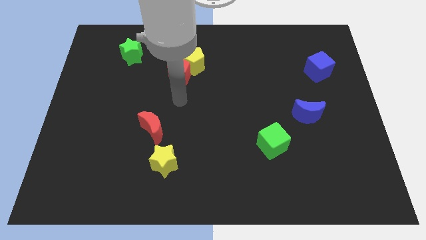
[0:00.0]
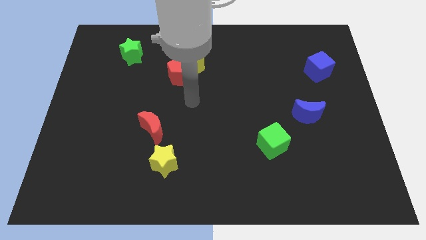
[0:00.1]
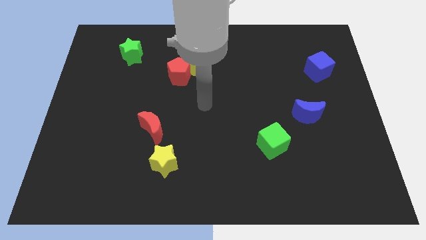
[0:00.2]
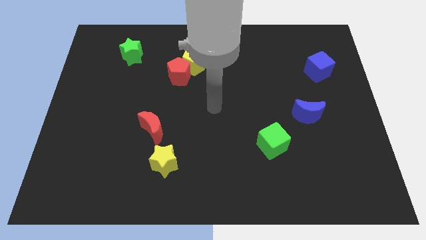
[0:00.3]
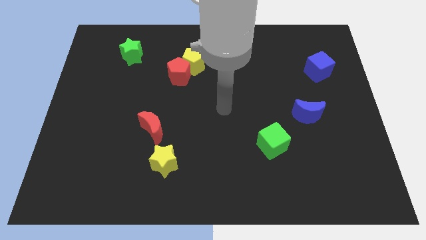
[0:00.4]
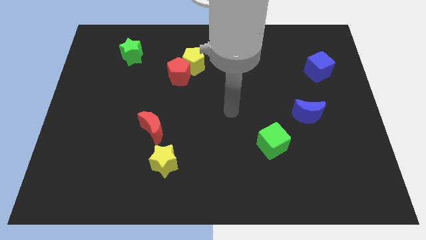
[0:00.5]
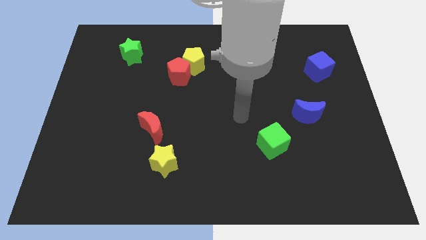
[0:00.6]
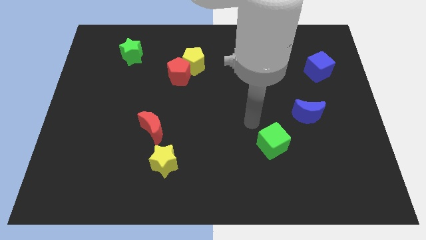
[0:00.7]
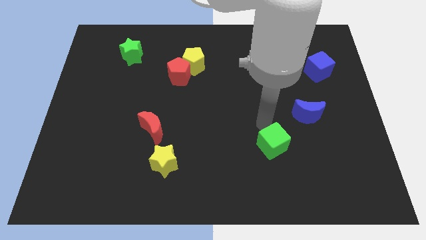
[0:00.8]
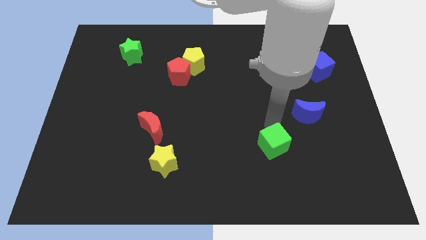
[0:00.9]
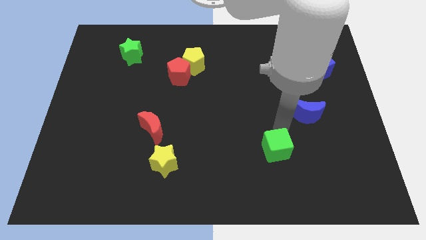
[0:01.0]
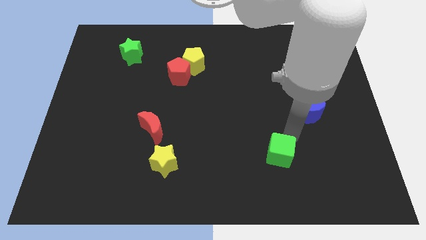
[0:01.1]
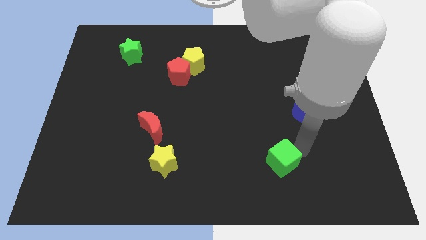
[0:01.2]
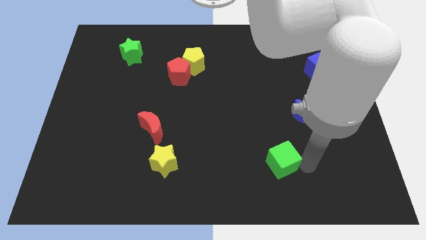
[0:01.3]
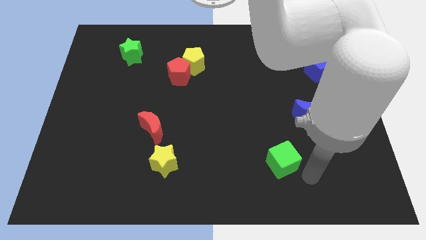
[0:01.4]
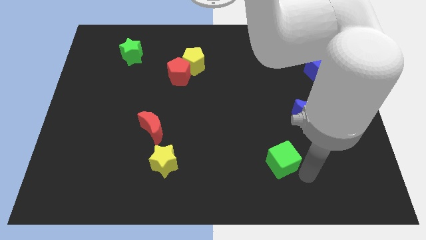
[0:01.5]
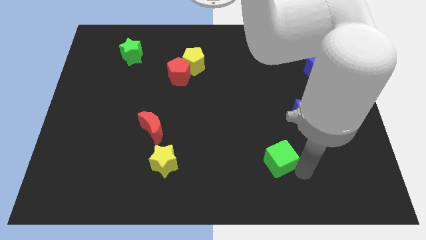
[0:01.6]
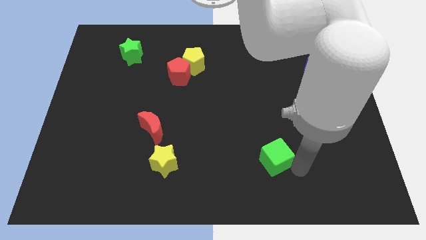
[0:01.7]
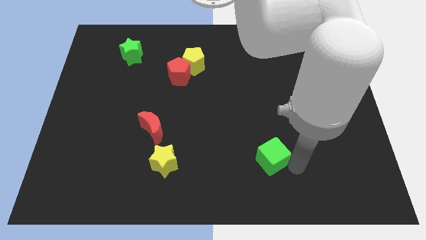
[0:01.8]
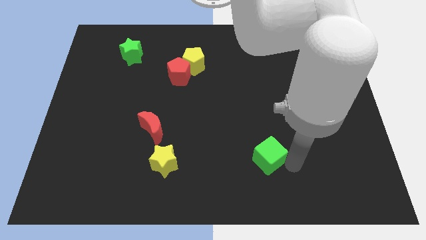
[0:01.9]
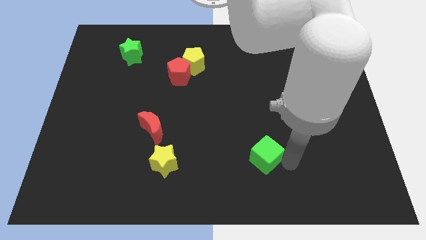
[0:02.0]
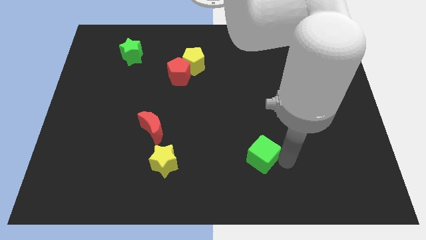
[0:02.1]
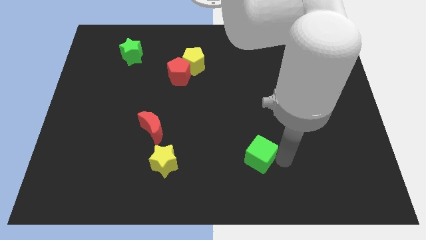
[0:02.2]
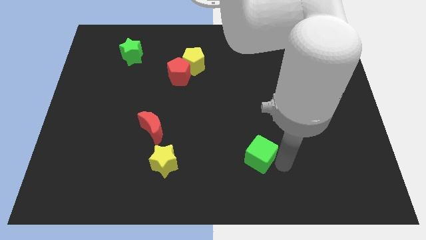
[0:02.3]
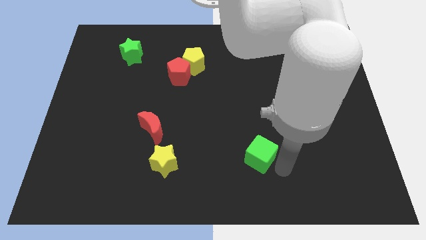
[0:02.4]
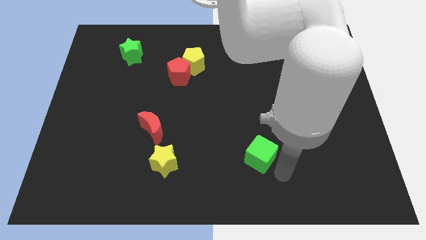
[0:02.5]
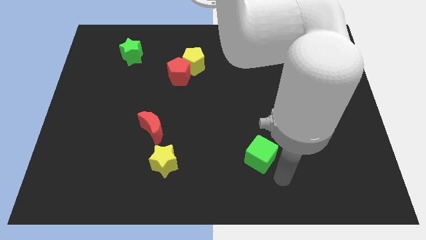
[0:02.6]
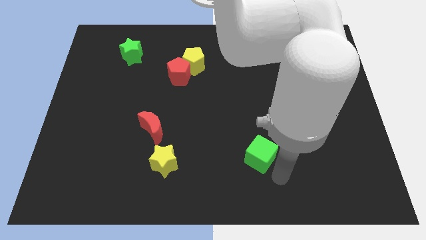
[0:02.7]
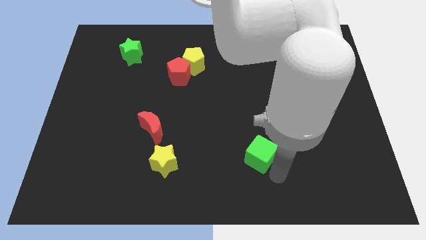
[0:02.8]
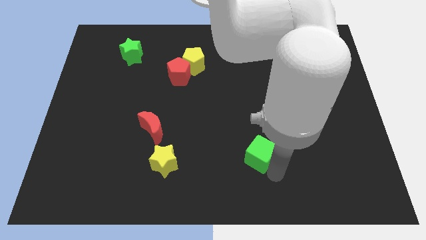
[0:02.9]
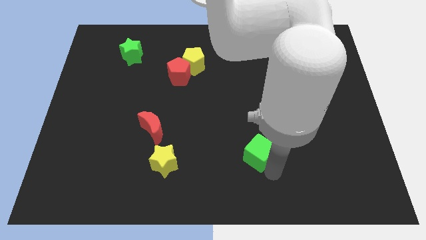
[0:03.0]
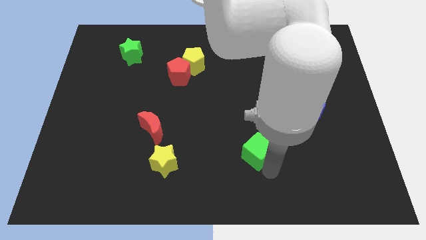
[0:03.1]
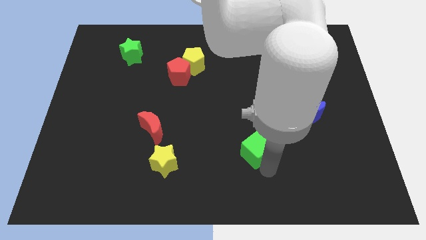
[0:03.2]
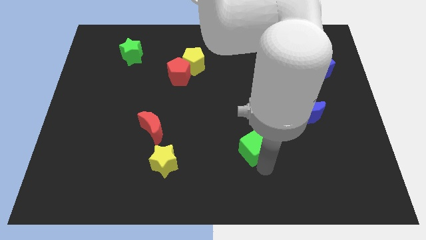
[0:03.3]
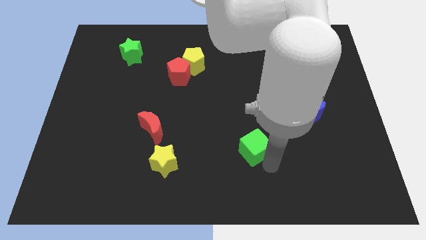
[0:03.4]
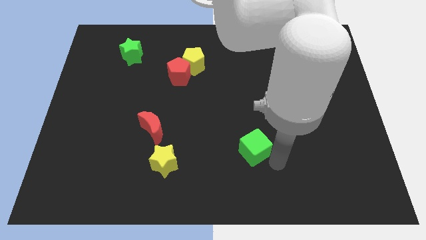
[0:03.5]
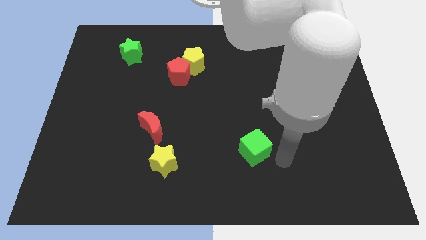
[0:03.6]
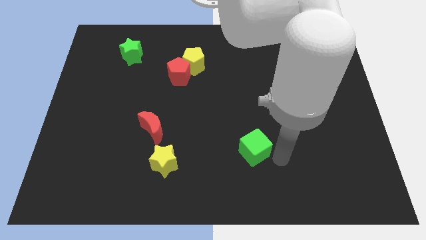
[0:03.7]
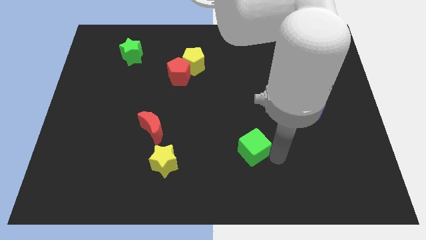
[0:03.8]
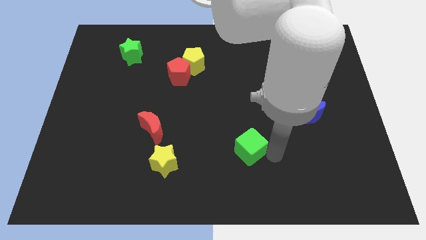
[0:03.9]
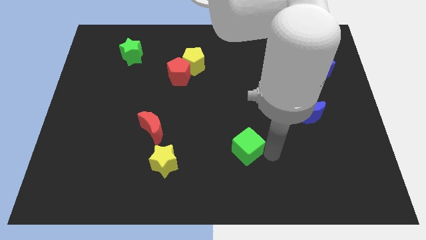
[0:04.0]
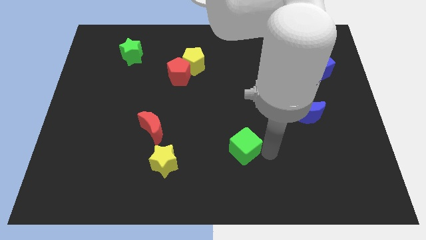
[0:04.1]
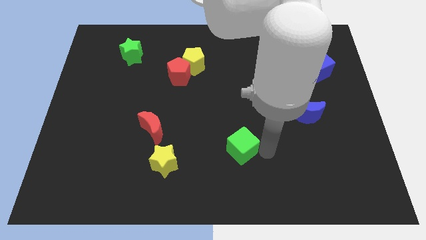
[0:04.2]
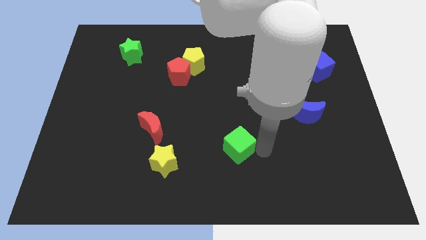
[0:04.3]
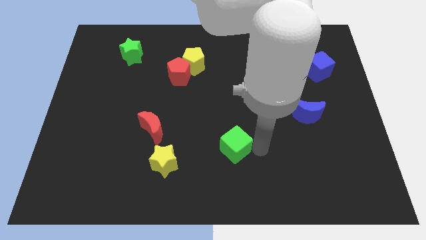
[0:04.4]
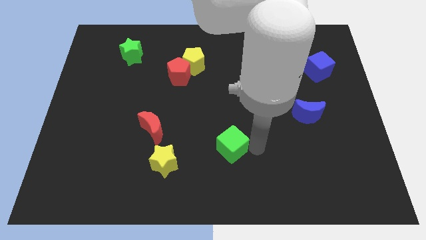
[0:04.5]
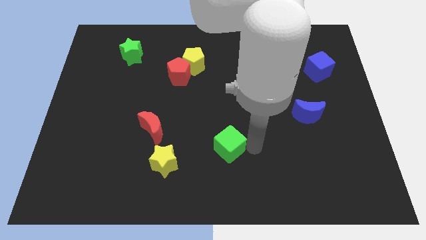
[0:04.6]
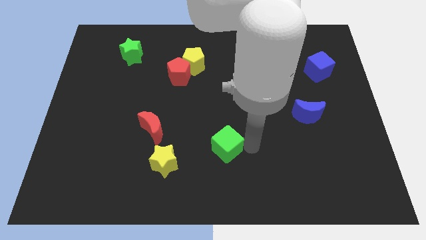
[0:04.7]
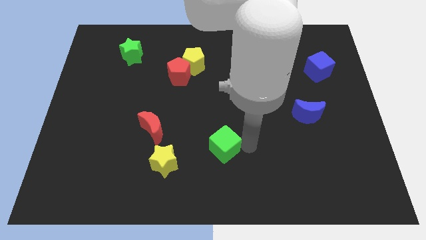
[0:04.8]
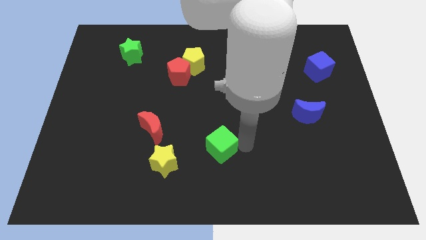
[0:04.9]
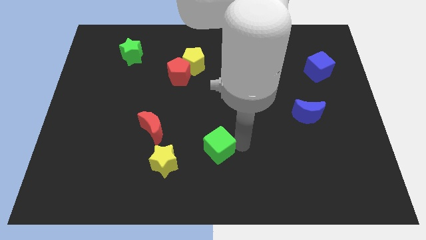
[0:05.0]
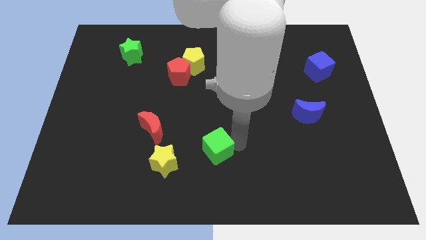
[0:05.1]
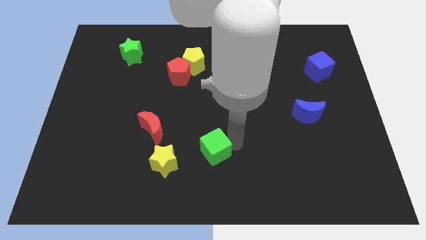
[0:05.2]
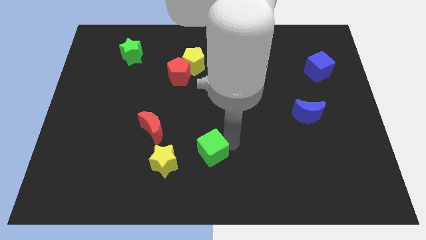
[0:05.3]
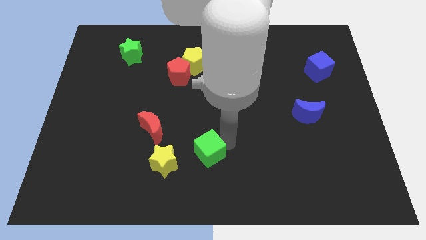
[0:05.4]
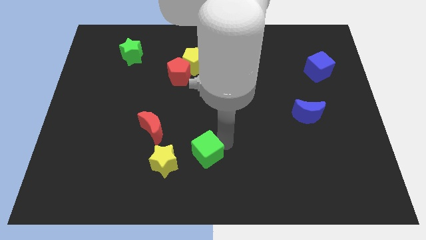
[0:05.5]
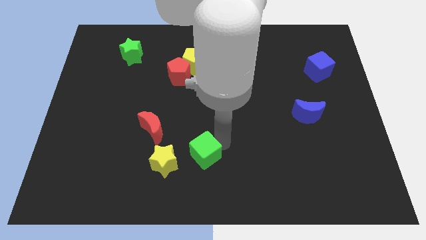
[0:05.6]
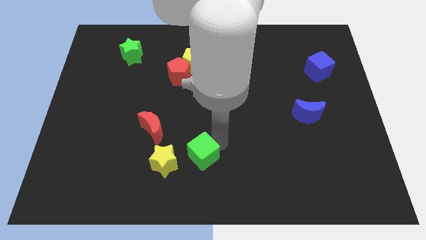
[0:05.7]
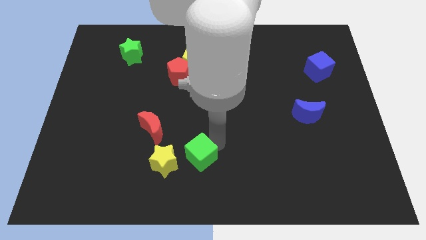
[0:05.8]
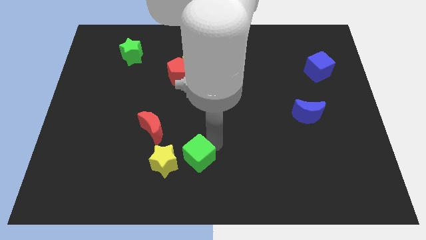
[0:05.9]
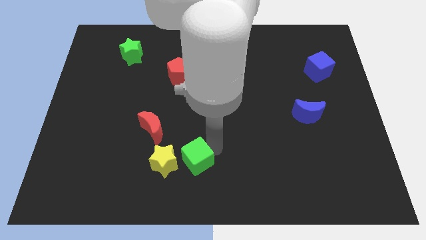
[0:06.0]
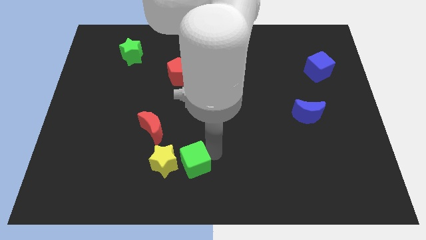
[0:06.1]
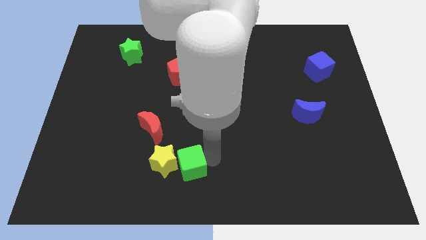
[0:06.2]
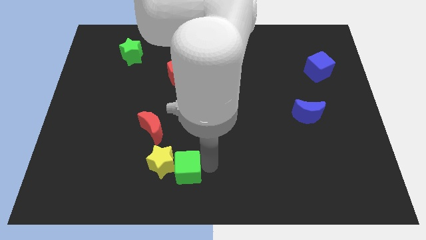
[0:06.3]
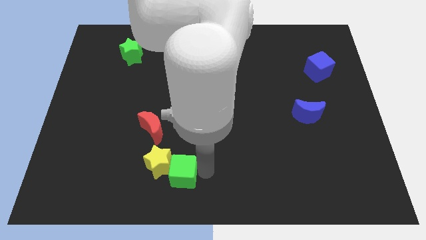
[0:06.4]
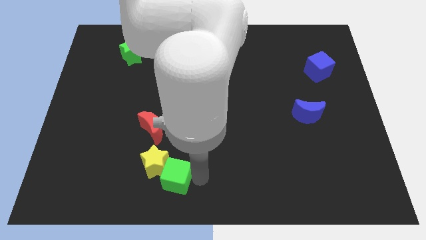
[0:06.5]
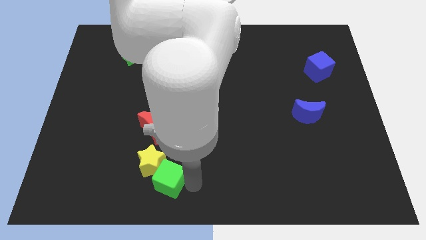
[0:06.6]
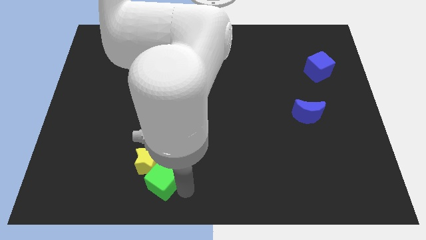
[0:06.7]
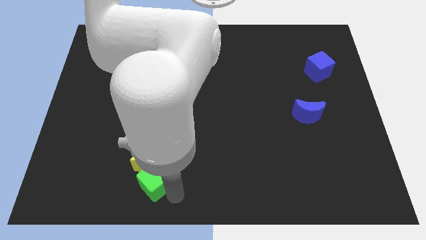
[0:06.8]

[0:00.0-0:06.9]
push the green cube to the left

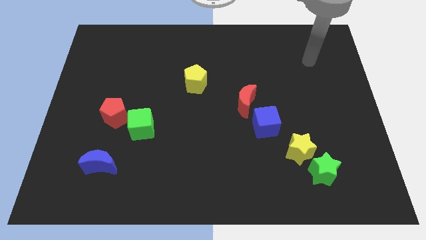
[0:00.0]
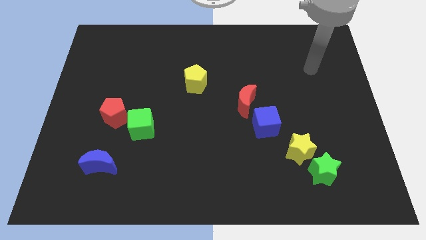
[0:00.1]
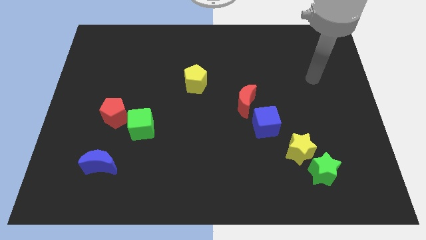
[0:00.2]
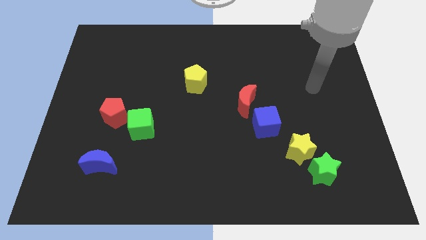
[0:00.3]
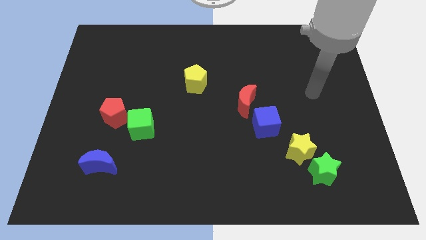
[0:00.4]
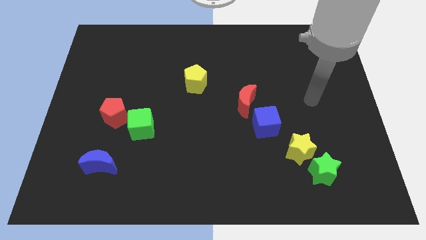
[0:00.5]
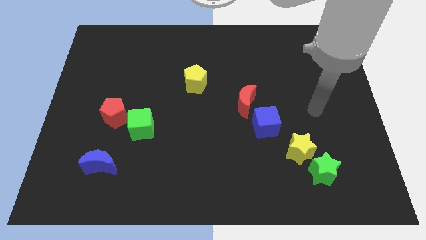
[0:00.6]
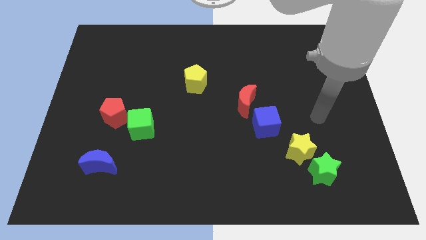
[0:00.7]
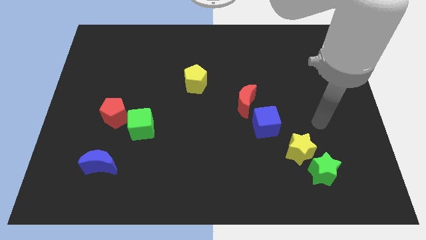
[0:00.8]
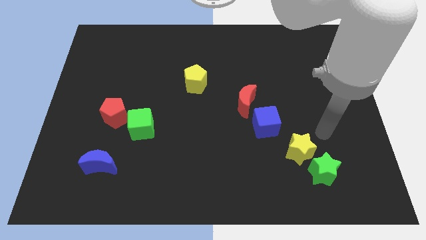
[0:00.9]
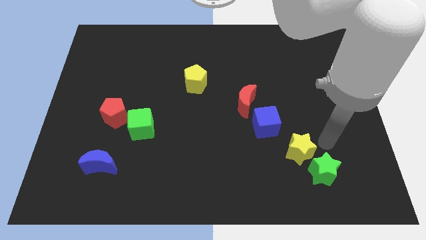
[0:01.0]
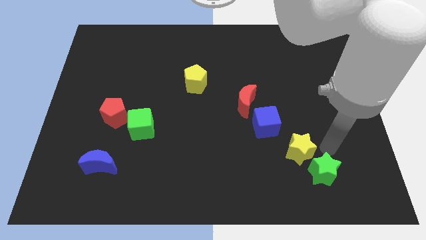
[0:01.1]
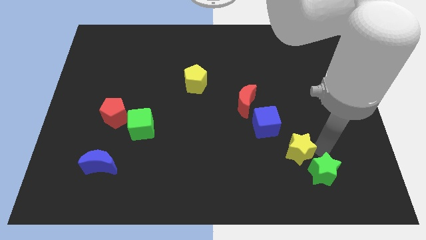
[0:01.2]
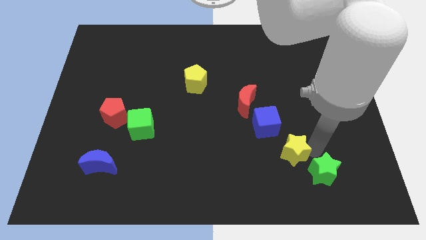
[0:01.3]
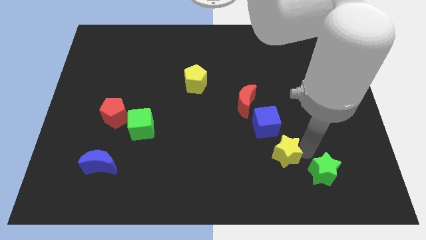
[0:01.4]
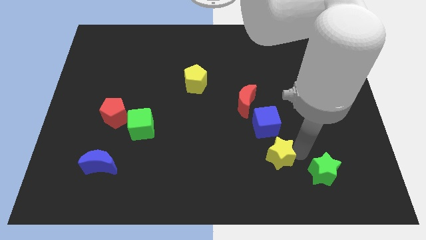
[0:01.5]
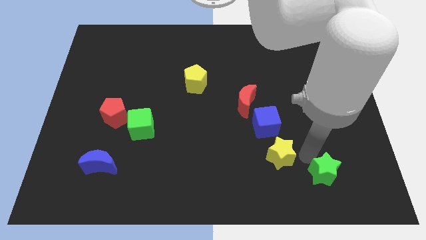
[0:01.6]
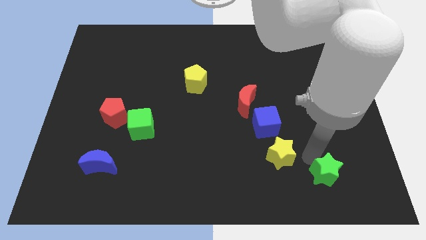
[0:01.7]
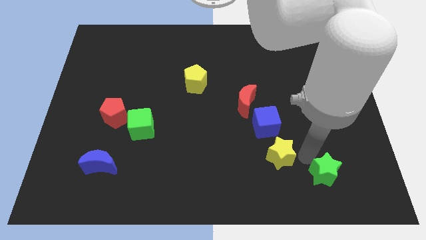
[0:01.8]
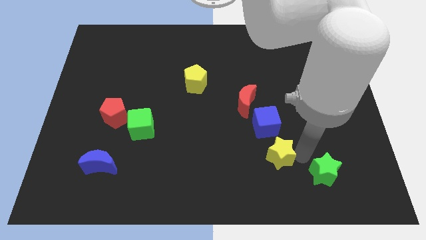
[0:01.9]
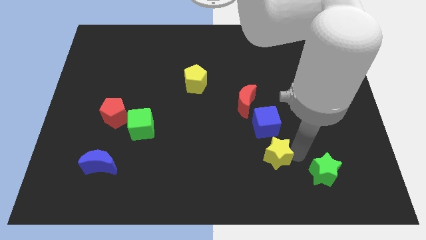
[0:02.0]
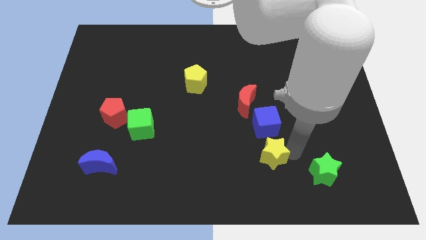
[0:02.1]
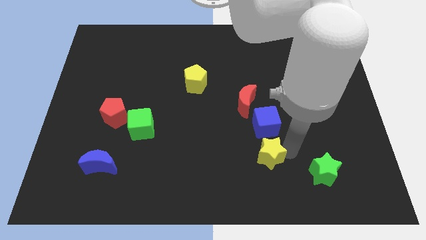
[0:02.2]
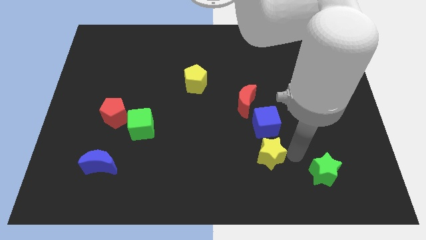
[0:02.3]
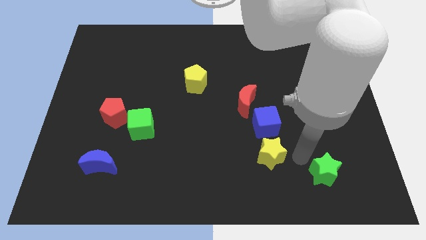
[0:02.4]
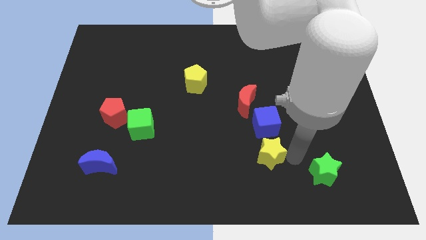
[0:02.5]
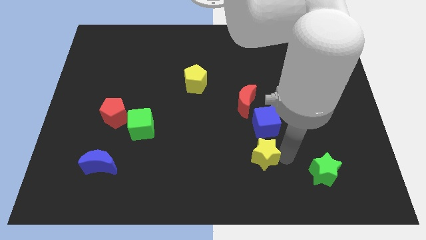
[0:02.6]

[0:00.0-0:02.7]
push the yellow star a bit left
